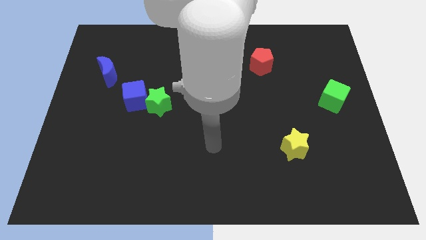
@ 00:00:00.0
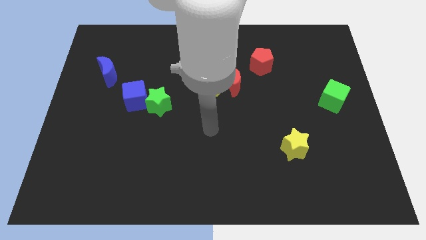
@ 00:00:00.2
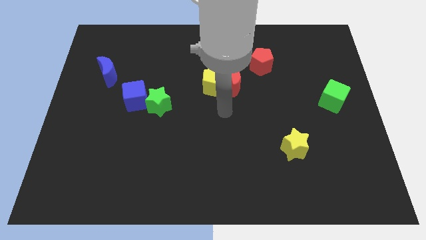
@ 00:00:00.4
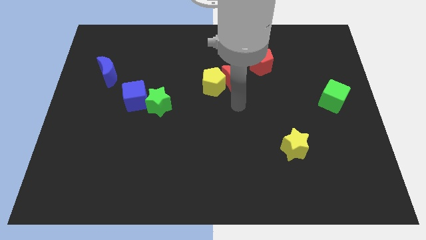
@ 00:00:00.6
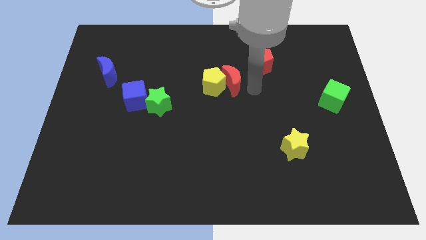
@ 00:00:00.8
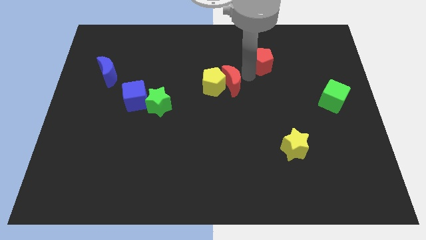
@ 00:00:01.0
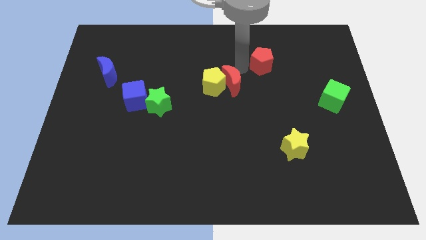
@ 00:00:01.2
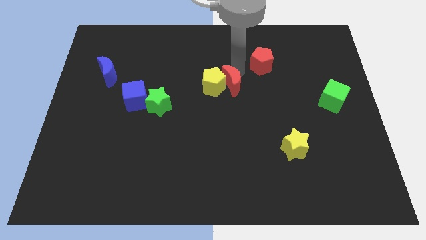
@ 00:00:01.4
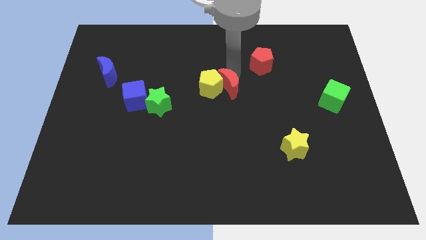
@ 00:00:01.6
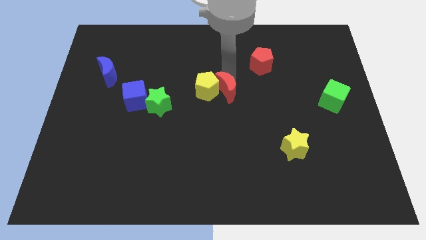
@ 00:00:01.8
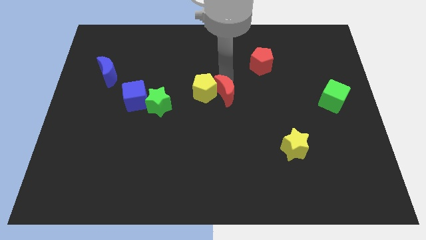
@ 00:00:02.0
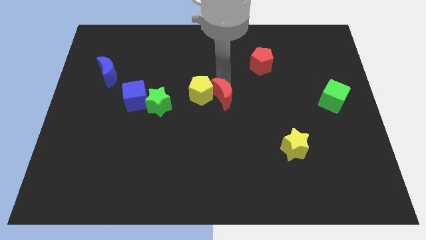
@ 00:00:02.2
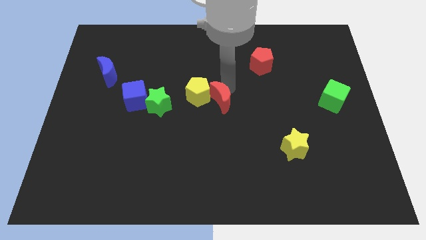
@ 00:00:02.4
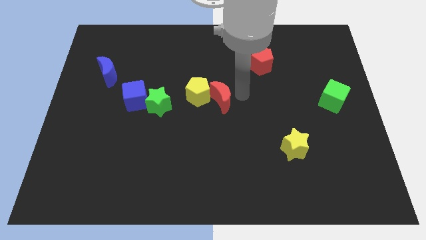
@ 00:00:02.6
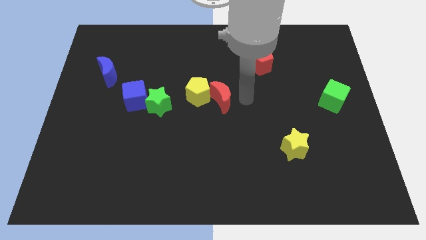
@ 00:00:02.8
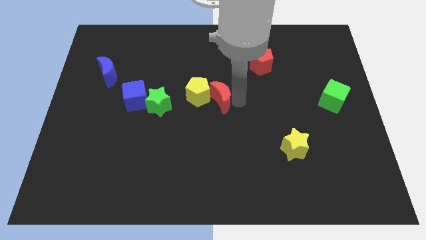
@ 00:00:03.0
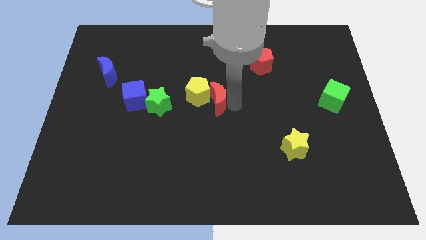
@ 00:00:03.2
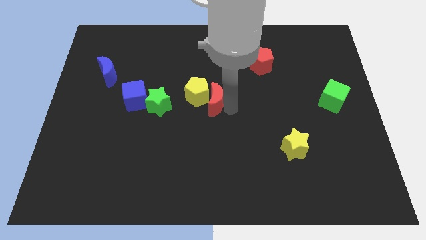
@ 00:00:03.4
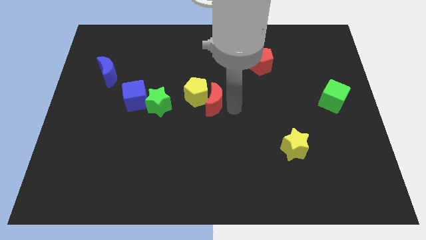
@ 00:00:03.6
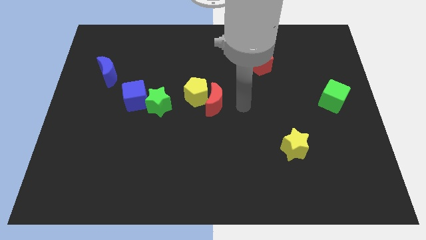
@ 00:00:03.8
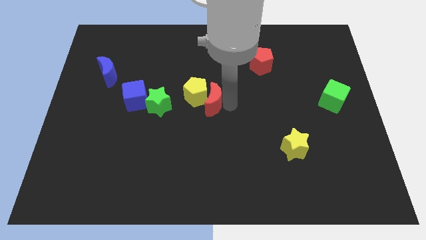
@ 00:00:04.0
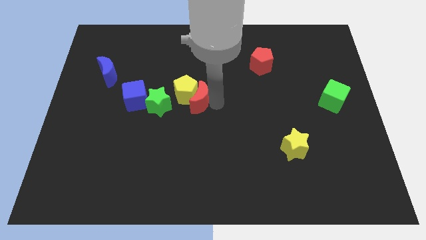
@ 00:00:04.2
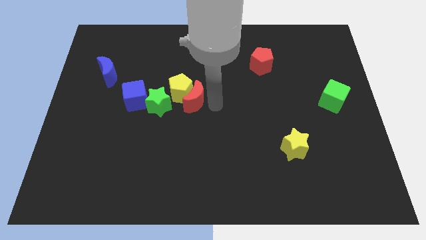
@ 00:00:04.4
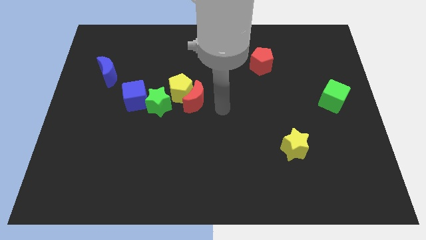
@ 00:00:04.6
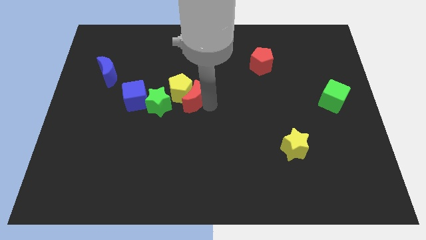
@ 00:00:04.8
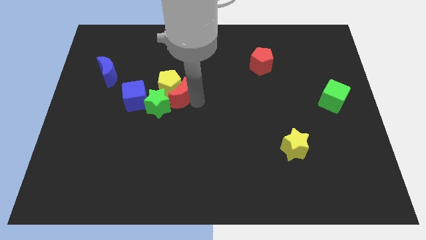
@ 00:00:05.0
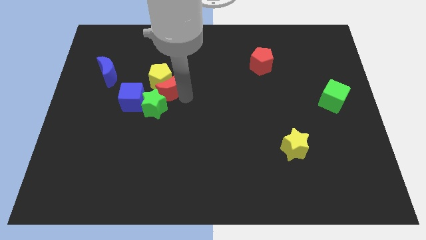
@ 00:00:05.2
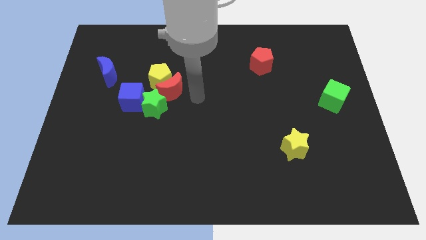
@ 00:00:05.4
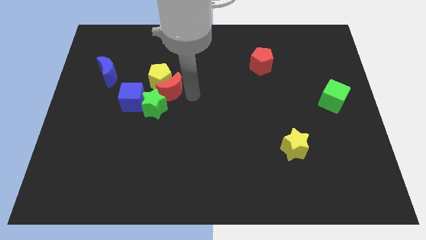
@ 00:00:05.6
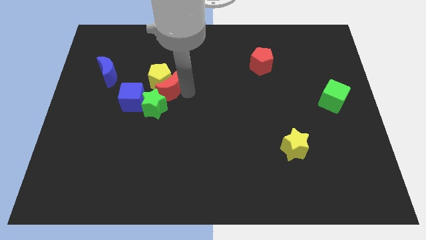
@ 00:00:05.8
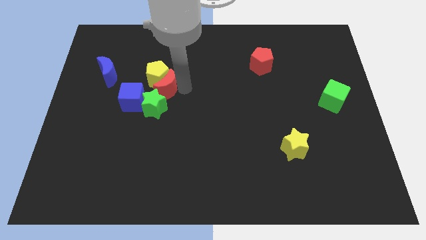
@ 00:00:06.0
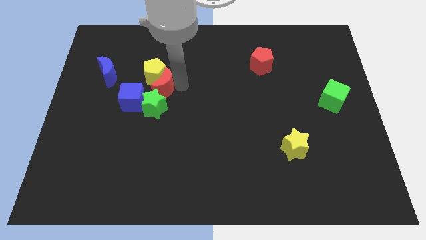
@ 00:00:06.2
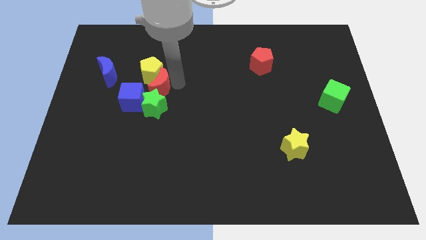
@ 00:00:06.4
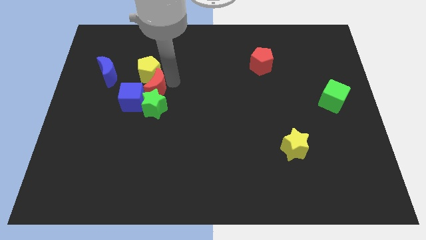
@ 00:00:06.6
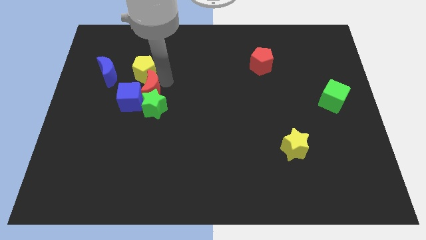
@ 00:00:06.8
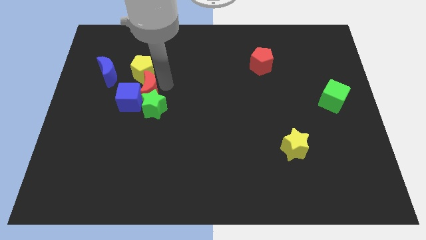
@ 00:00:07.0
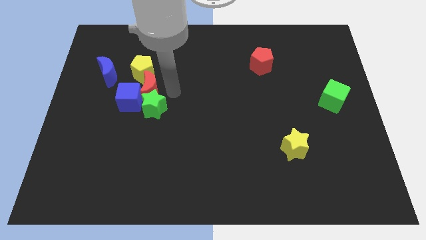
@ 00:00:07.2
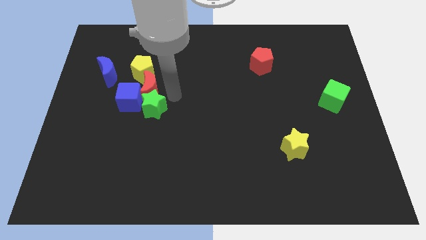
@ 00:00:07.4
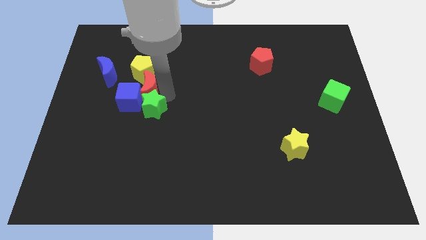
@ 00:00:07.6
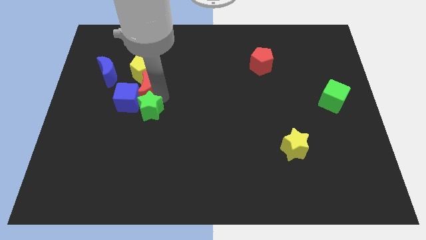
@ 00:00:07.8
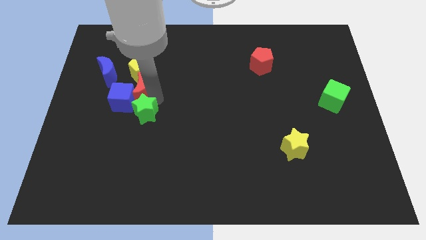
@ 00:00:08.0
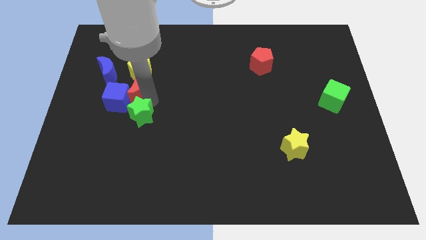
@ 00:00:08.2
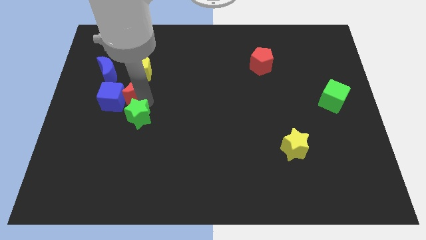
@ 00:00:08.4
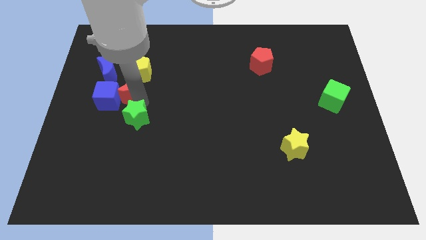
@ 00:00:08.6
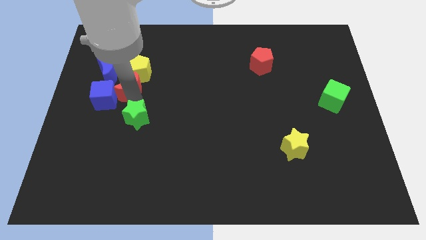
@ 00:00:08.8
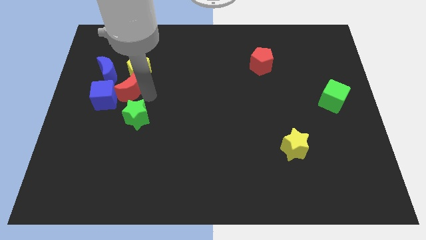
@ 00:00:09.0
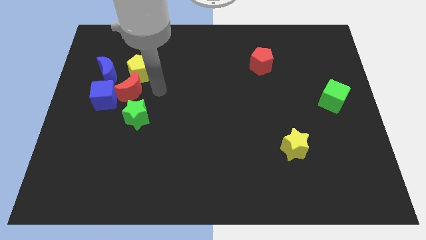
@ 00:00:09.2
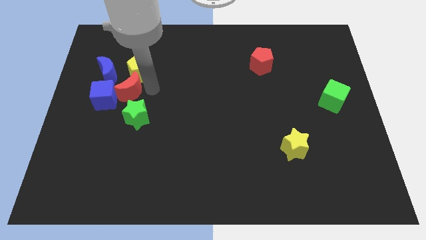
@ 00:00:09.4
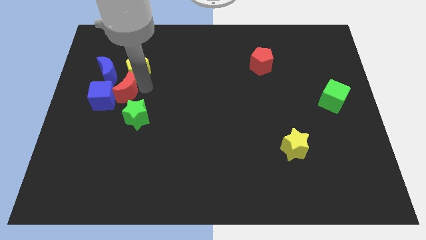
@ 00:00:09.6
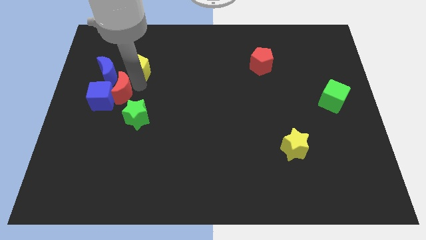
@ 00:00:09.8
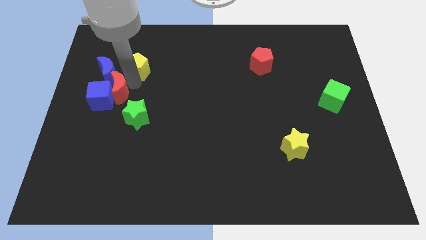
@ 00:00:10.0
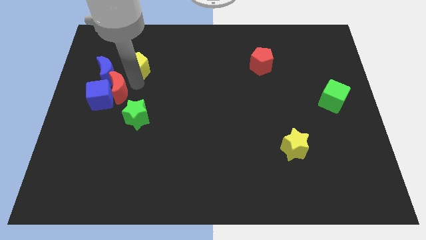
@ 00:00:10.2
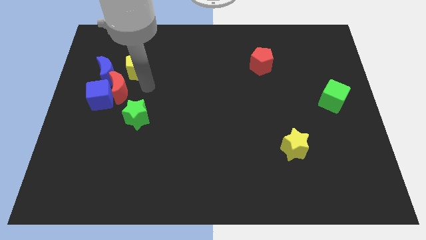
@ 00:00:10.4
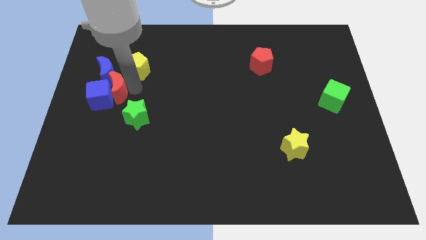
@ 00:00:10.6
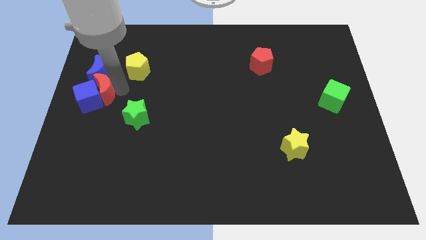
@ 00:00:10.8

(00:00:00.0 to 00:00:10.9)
slide the red moon to the center left

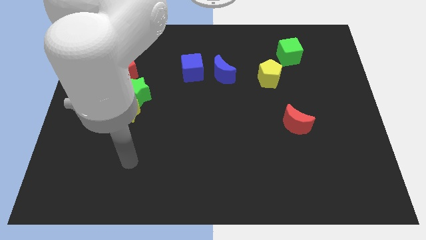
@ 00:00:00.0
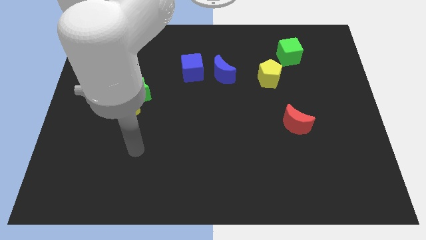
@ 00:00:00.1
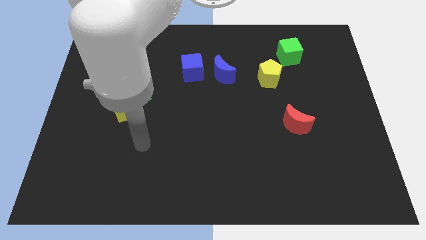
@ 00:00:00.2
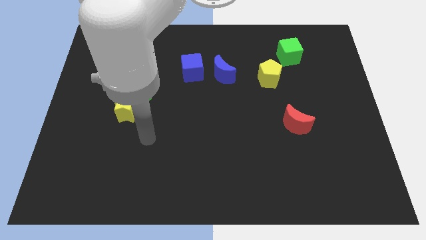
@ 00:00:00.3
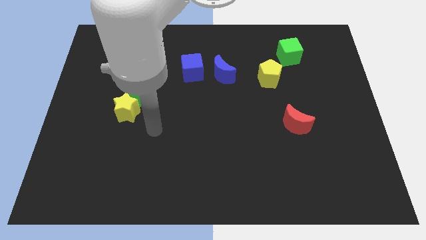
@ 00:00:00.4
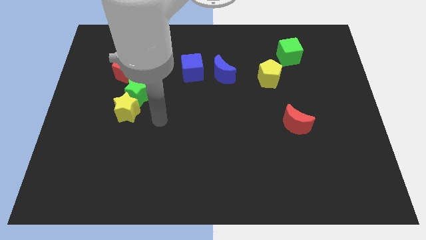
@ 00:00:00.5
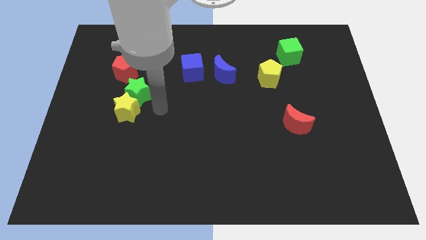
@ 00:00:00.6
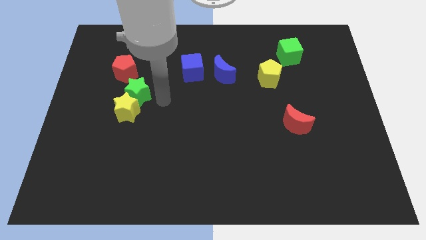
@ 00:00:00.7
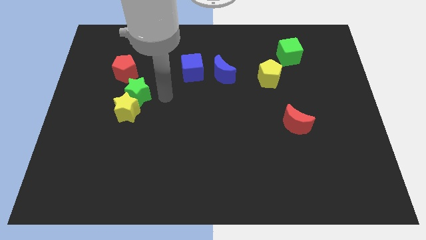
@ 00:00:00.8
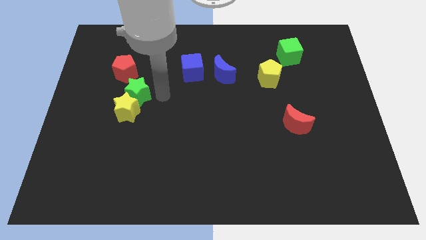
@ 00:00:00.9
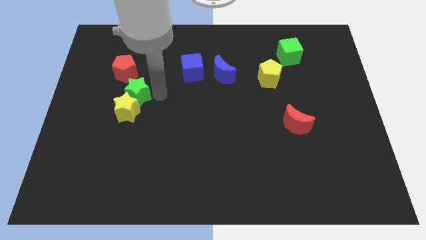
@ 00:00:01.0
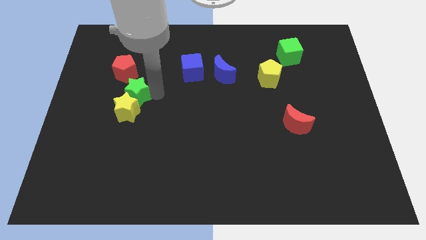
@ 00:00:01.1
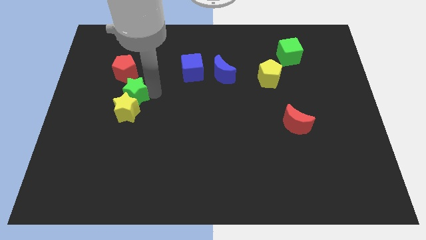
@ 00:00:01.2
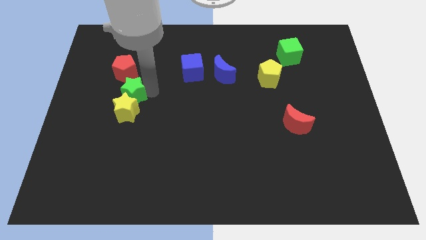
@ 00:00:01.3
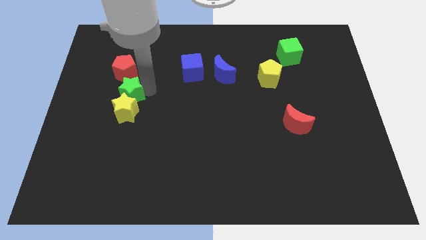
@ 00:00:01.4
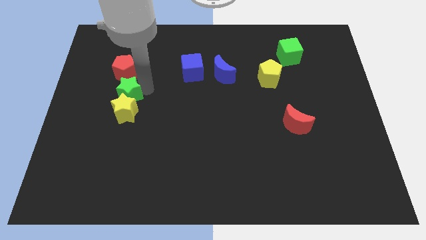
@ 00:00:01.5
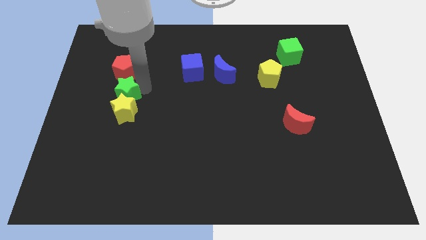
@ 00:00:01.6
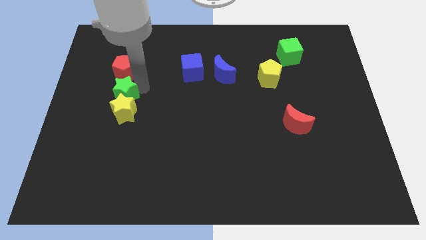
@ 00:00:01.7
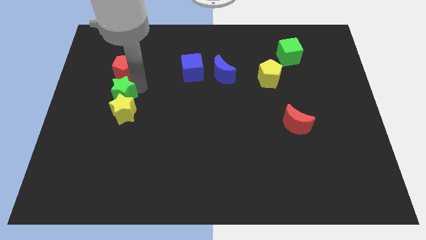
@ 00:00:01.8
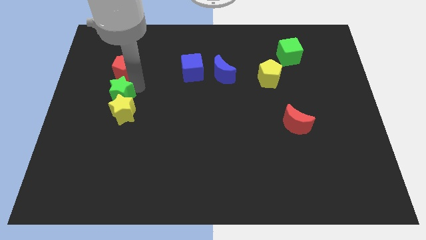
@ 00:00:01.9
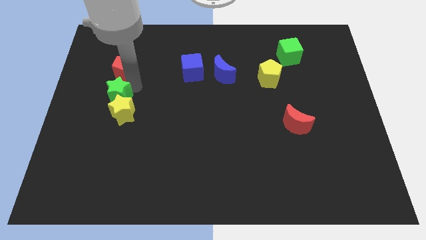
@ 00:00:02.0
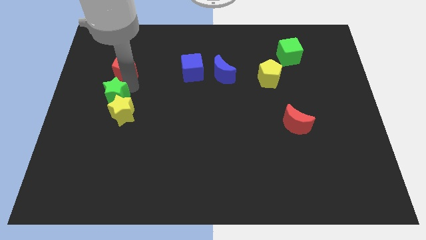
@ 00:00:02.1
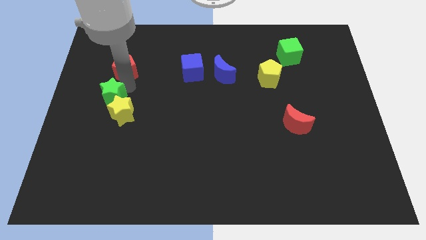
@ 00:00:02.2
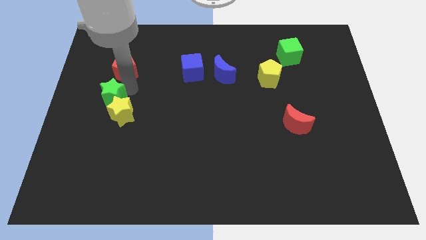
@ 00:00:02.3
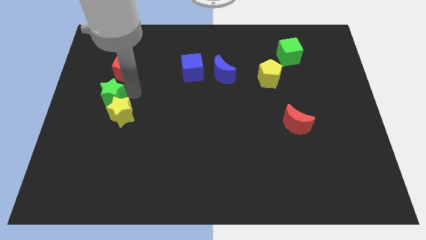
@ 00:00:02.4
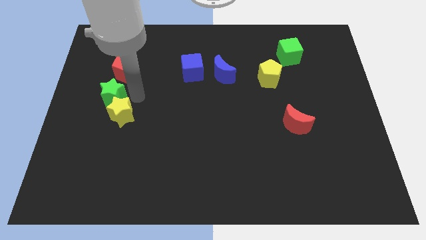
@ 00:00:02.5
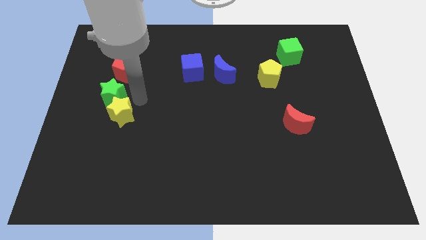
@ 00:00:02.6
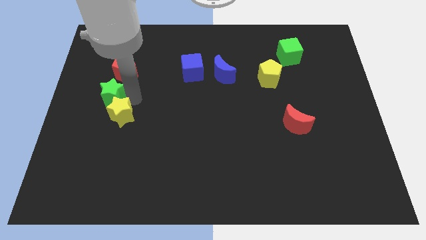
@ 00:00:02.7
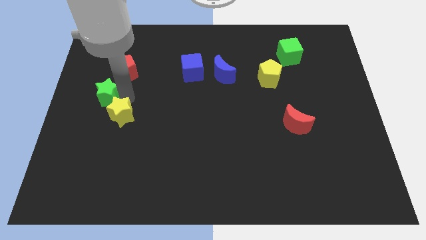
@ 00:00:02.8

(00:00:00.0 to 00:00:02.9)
push the green star to the center left
